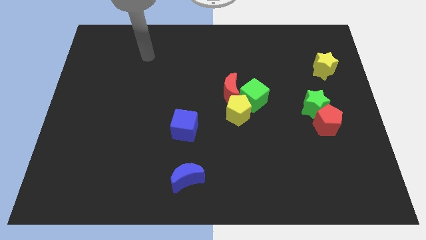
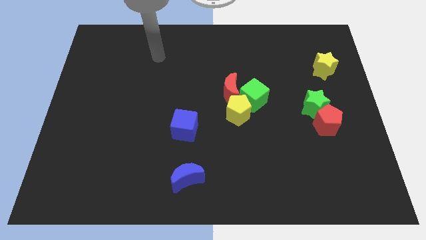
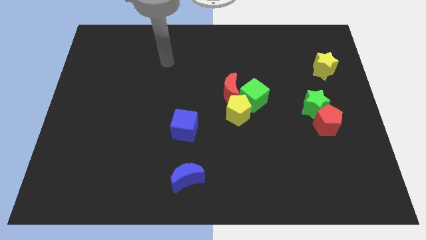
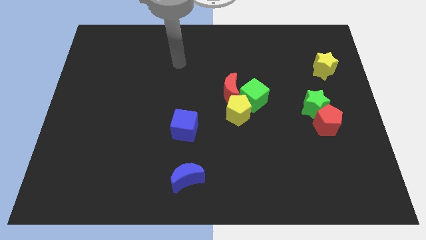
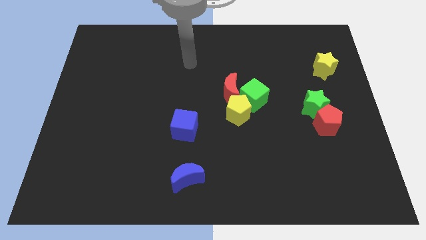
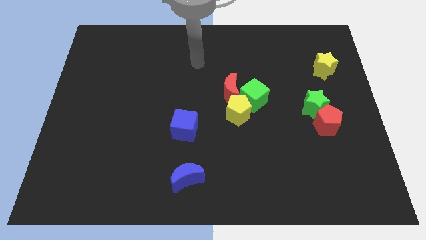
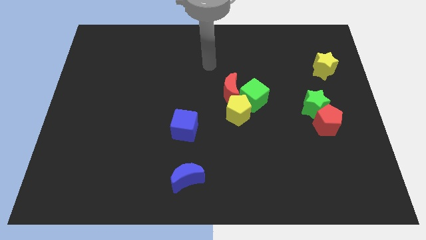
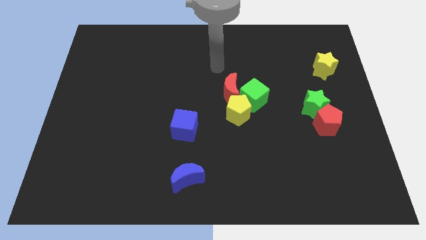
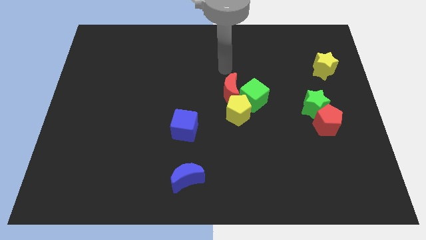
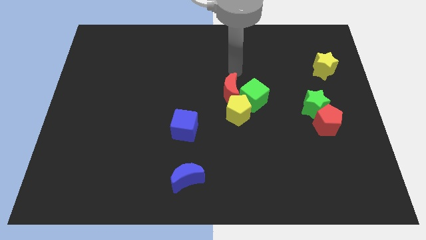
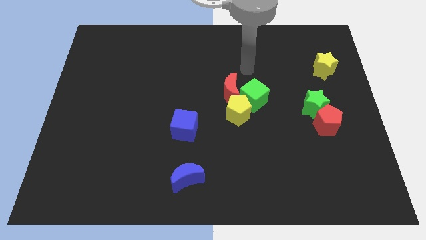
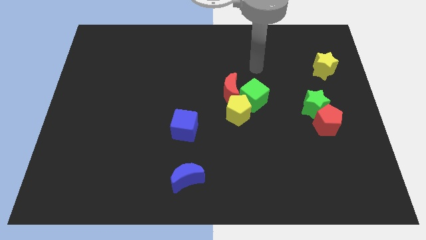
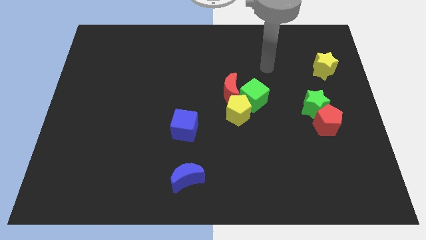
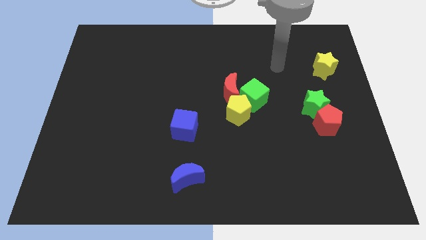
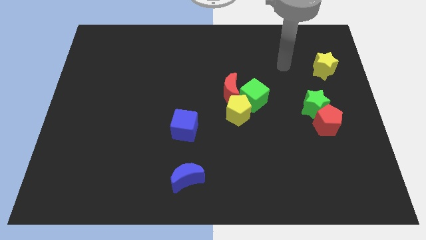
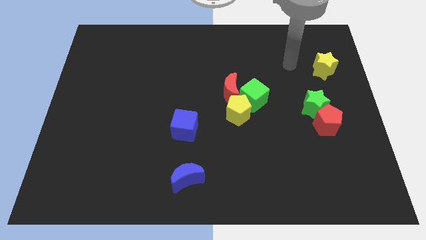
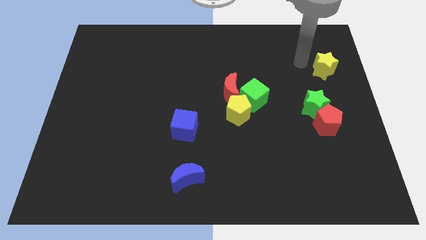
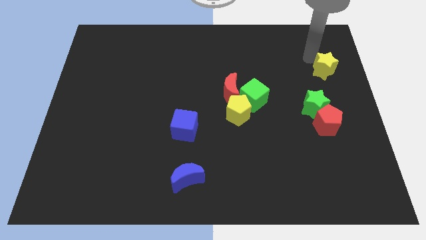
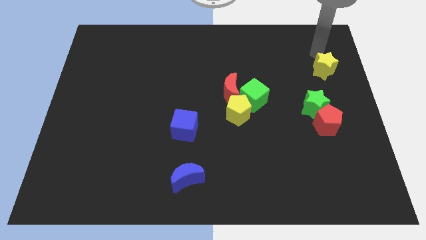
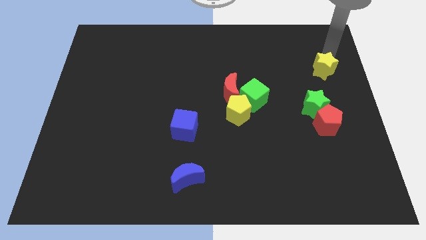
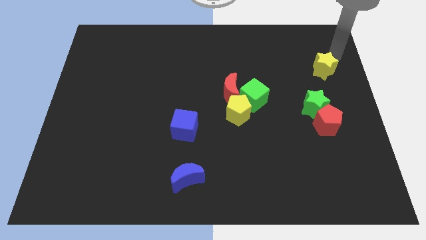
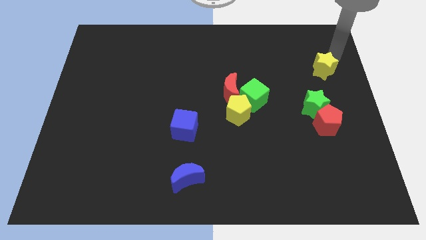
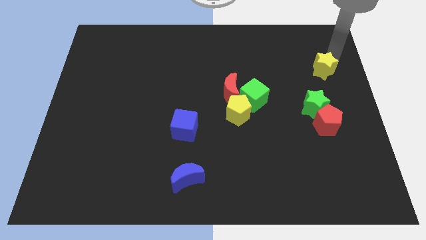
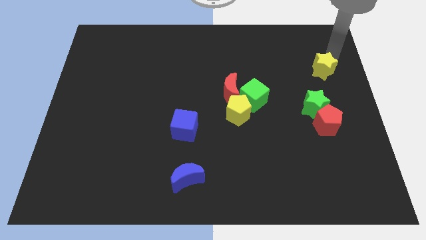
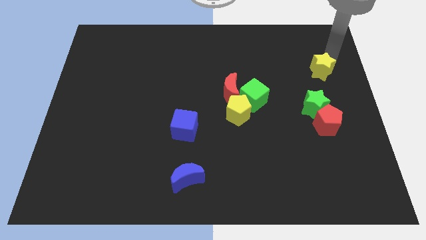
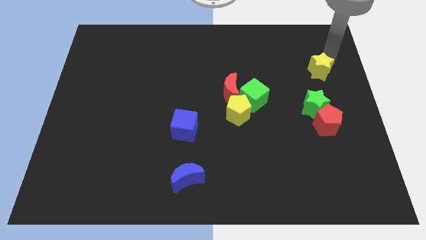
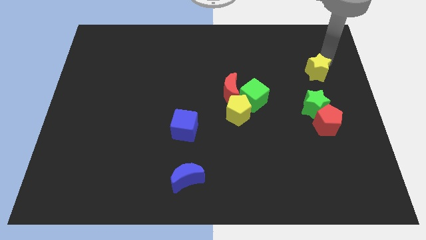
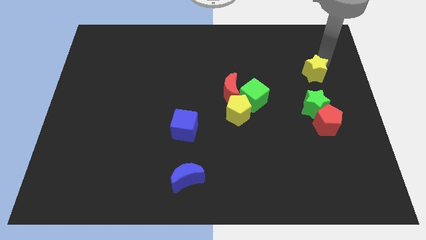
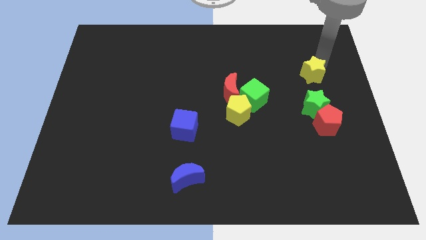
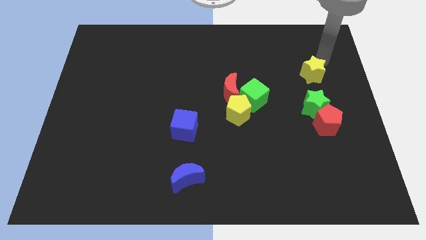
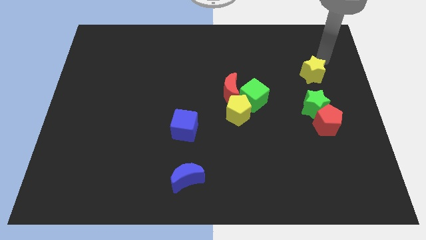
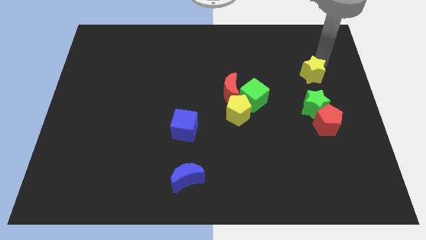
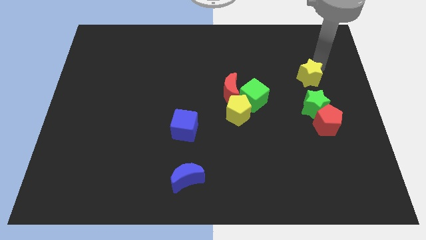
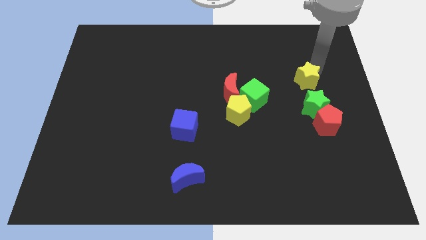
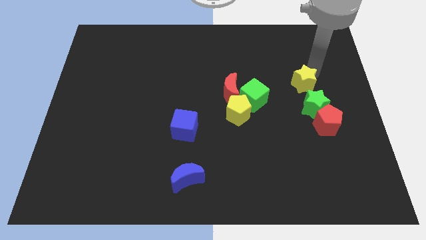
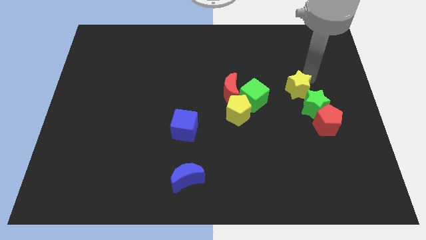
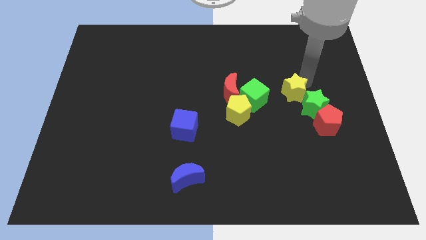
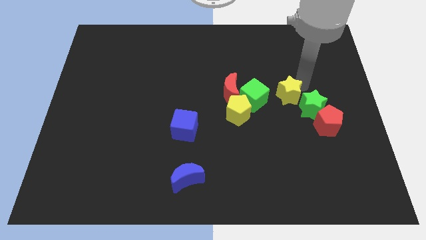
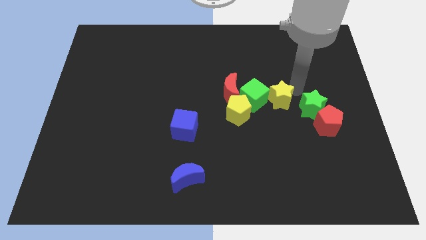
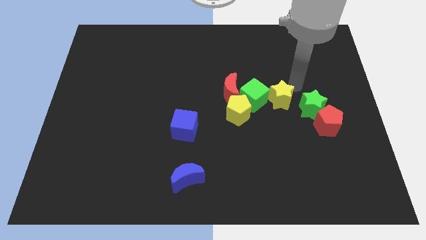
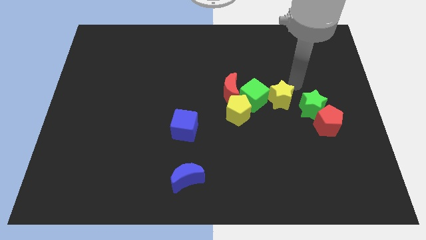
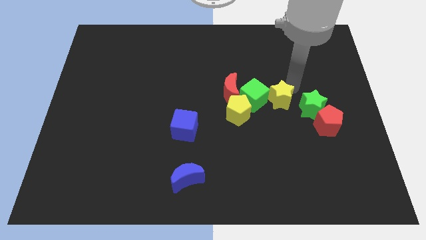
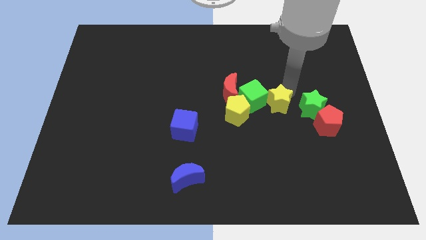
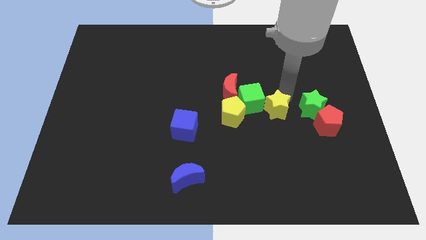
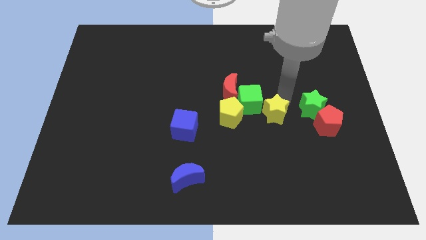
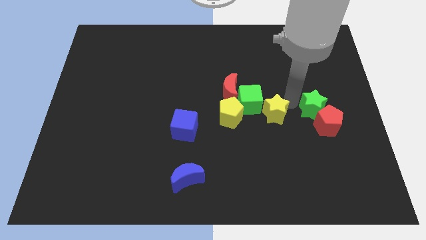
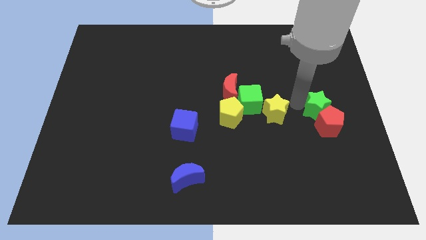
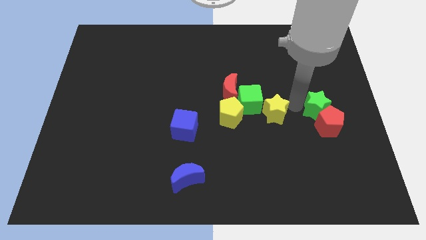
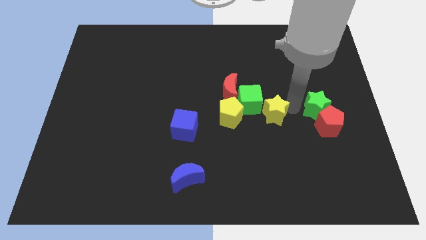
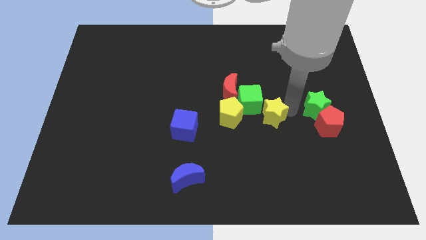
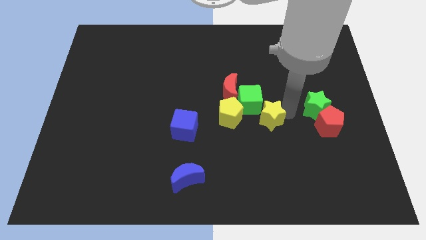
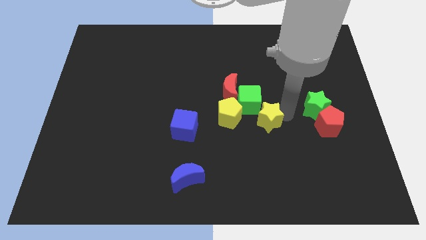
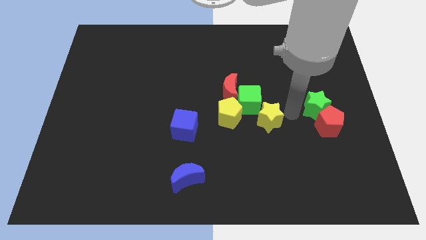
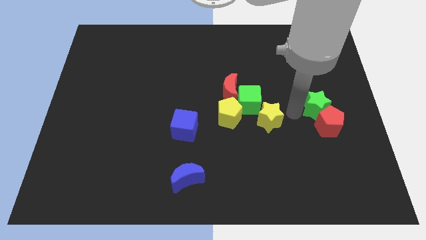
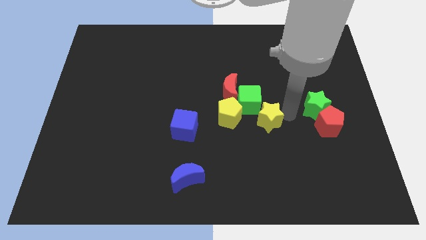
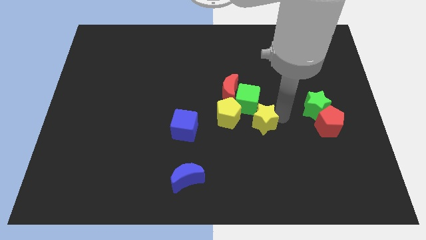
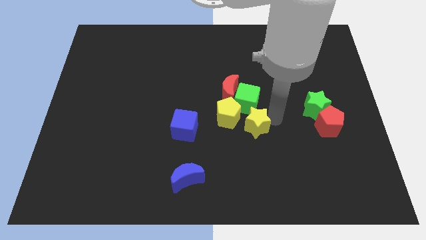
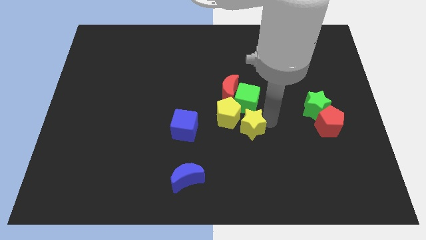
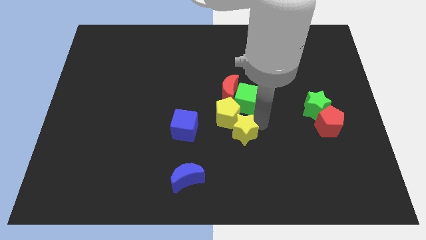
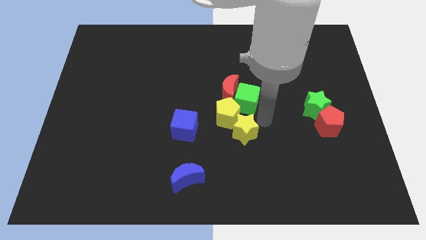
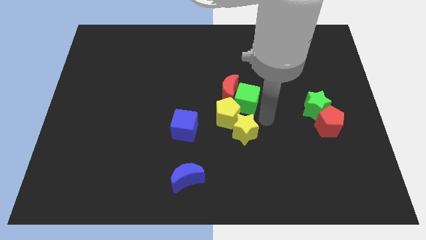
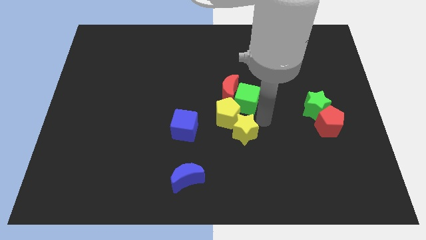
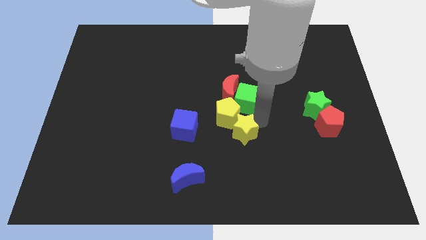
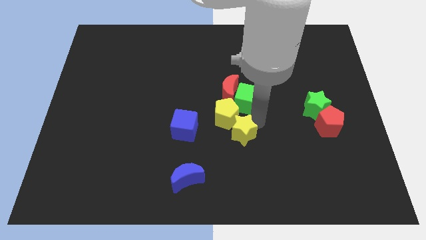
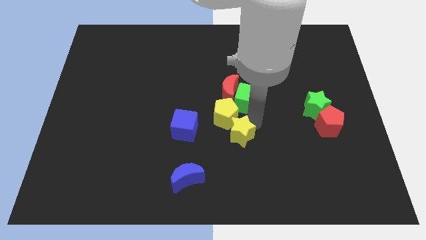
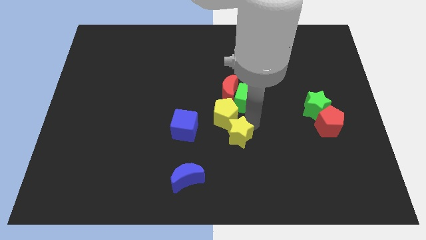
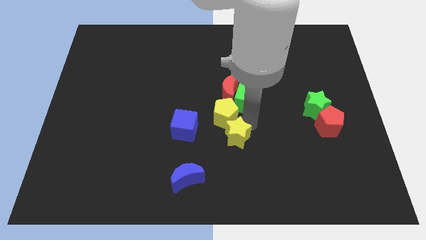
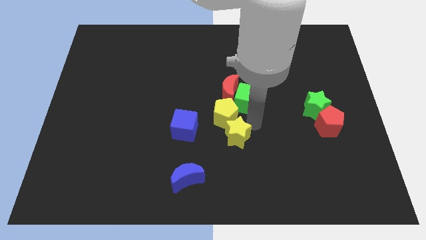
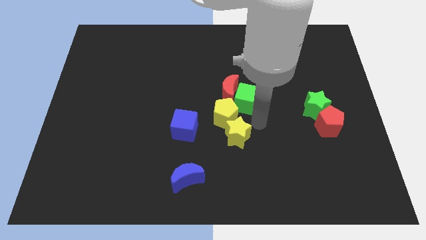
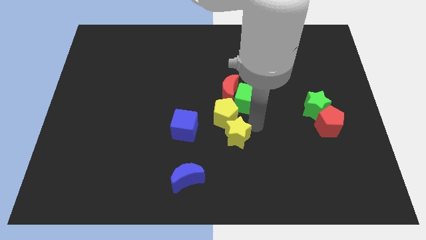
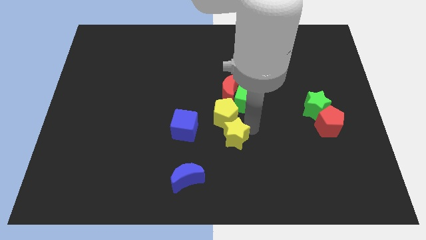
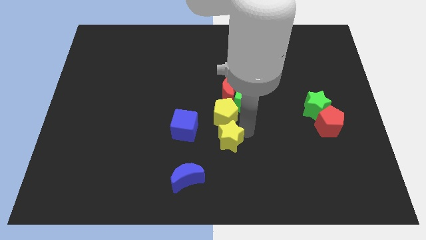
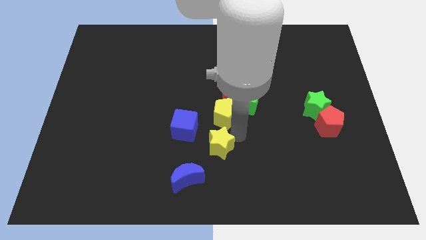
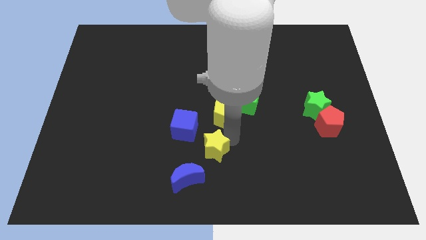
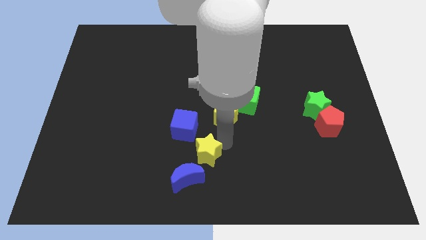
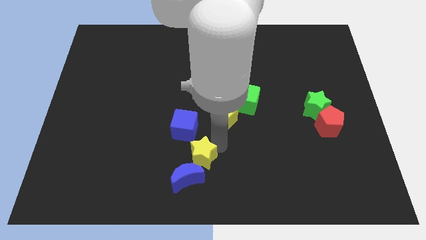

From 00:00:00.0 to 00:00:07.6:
put the yellow star towards the blue moon
